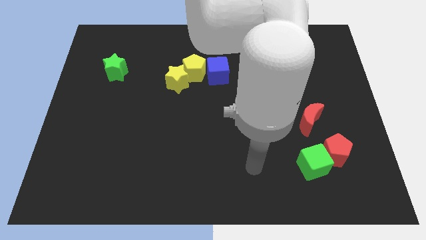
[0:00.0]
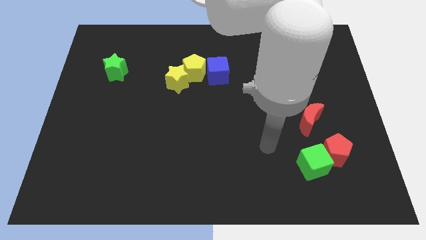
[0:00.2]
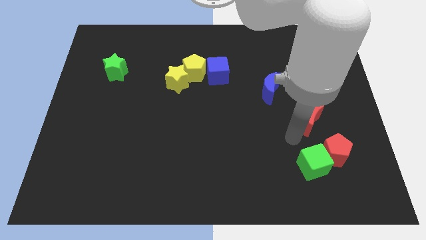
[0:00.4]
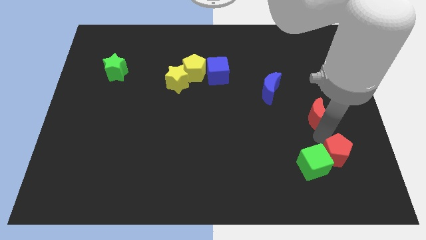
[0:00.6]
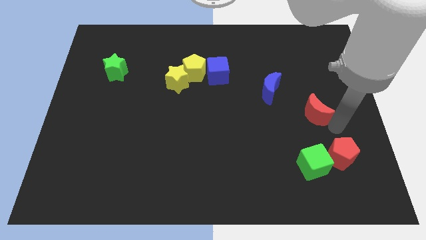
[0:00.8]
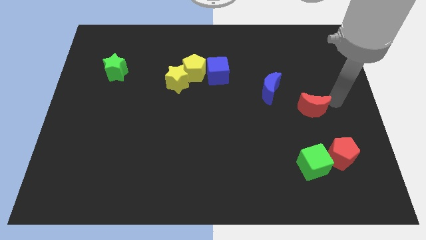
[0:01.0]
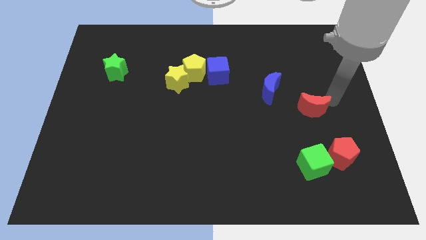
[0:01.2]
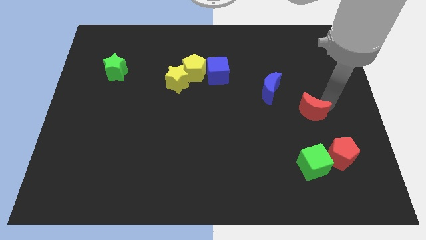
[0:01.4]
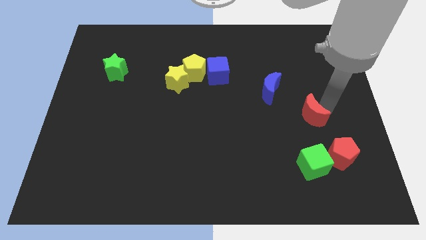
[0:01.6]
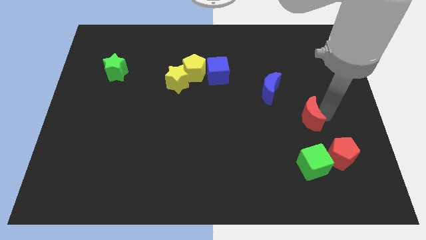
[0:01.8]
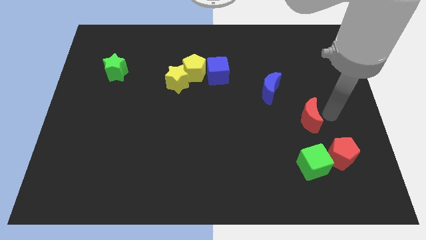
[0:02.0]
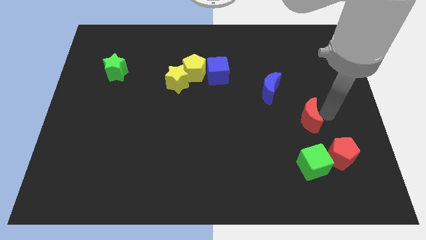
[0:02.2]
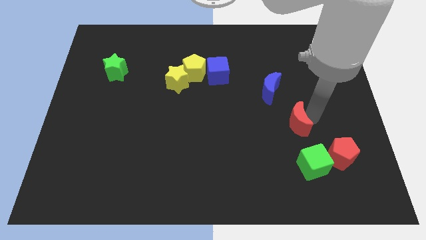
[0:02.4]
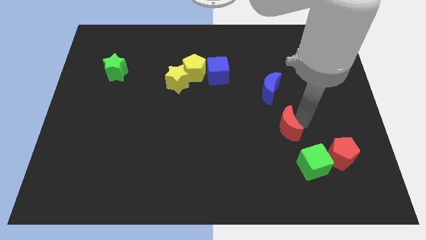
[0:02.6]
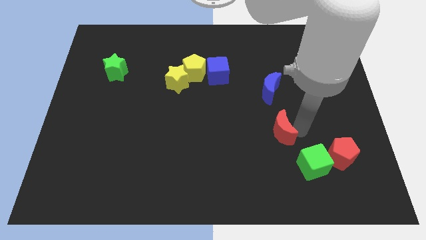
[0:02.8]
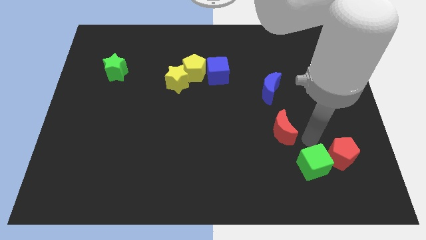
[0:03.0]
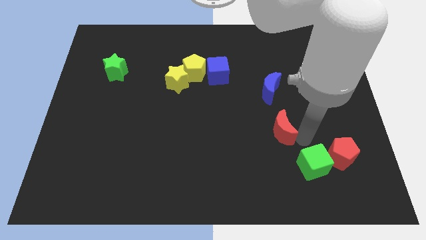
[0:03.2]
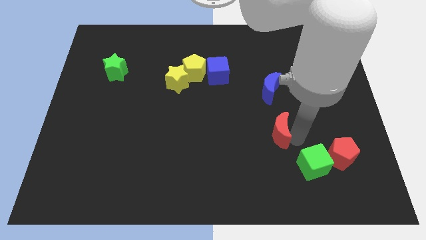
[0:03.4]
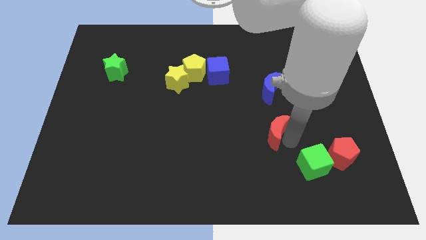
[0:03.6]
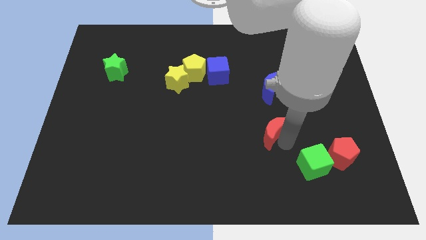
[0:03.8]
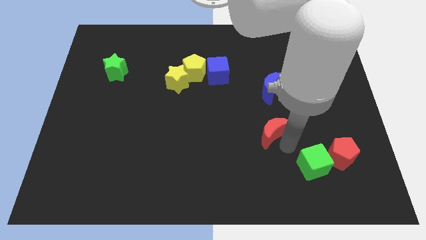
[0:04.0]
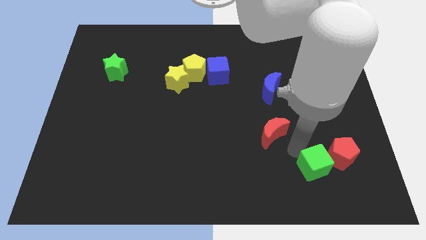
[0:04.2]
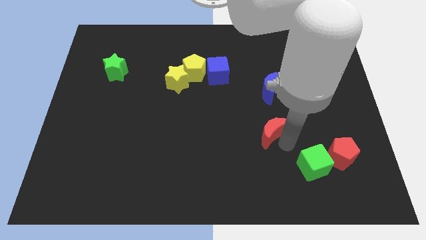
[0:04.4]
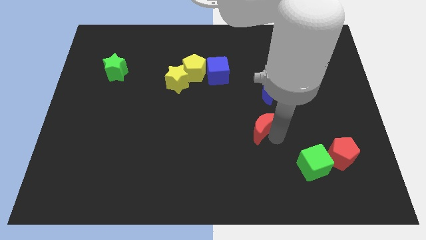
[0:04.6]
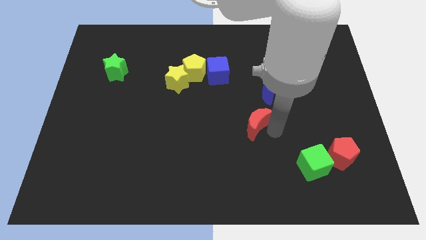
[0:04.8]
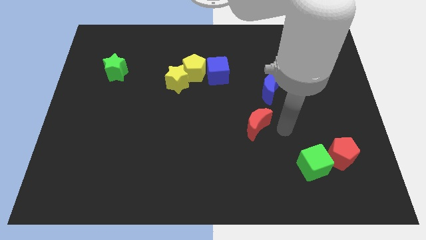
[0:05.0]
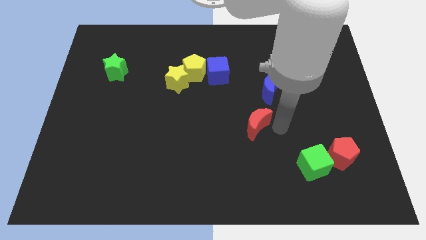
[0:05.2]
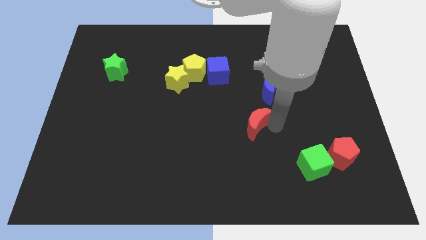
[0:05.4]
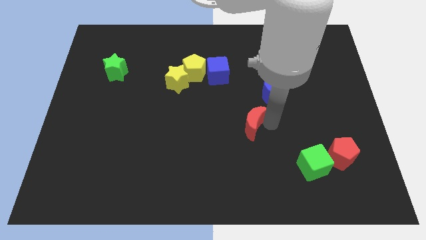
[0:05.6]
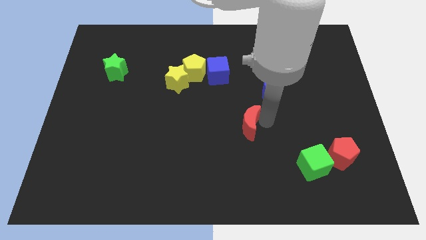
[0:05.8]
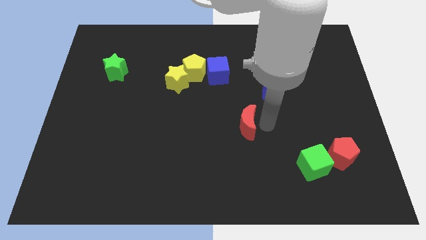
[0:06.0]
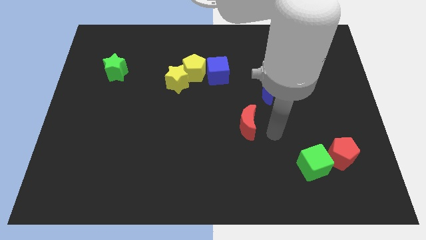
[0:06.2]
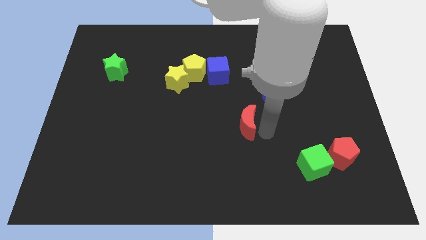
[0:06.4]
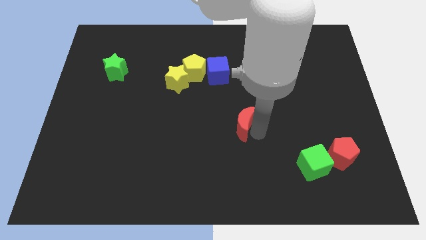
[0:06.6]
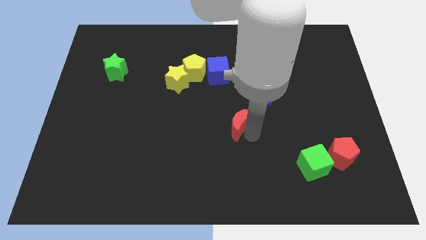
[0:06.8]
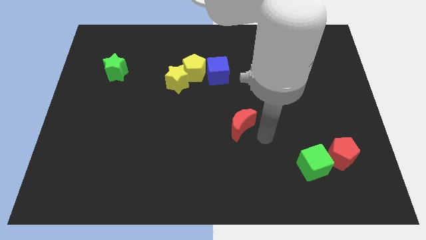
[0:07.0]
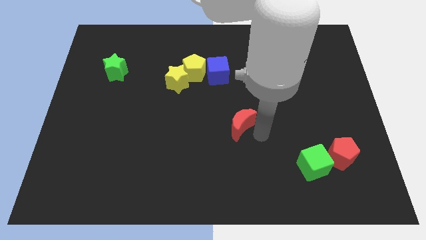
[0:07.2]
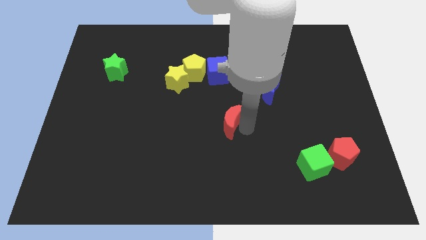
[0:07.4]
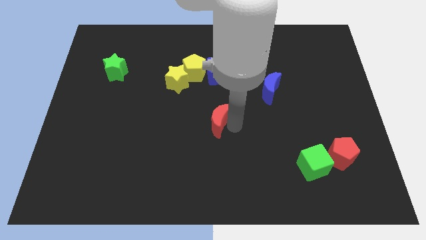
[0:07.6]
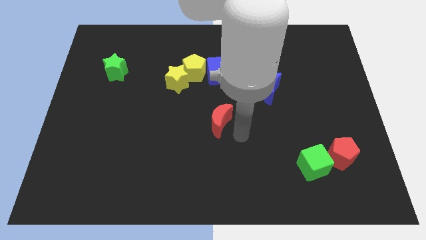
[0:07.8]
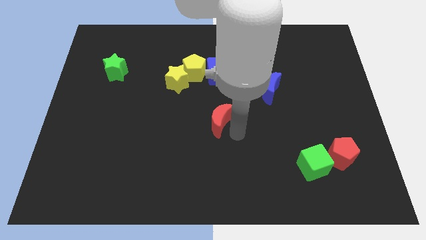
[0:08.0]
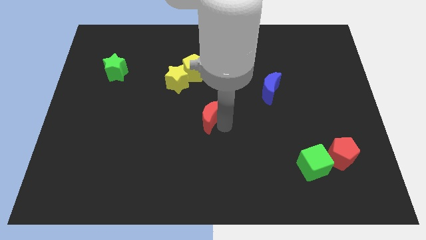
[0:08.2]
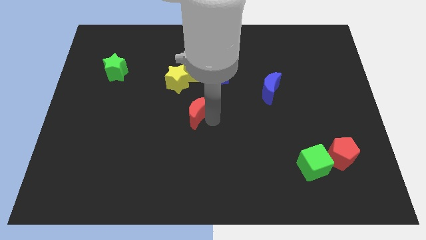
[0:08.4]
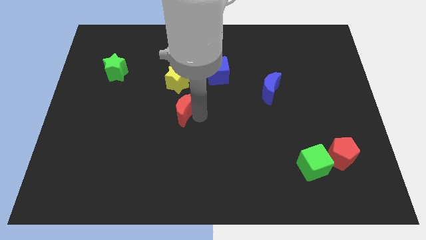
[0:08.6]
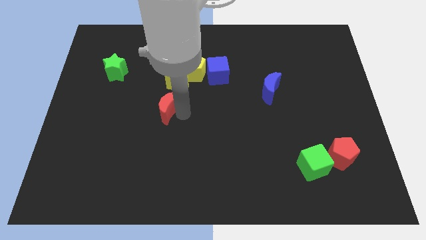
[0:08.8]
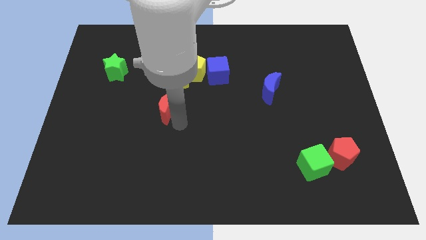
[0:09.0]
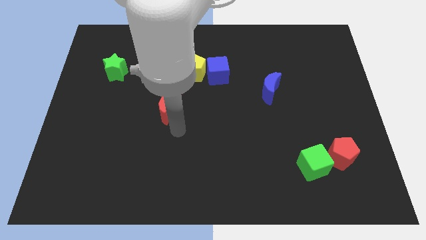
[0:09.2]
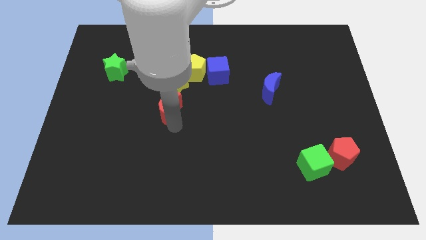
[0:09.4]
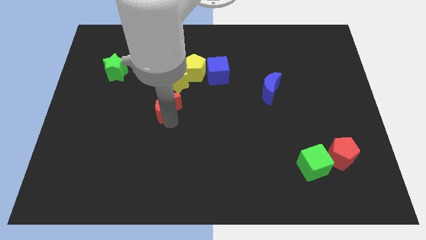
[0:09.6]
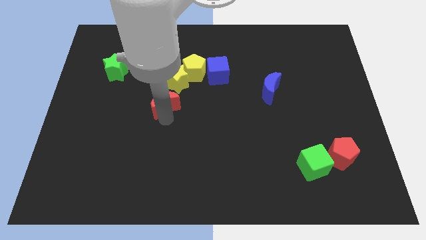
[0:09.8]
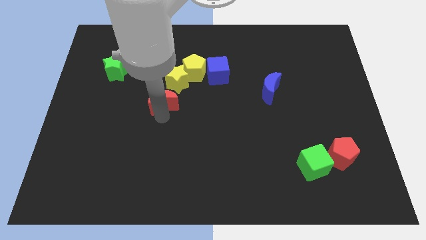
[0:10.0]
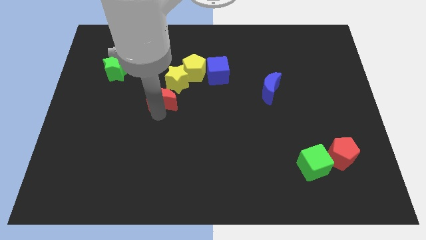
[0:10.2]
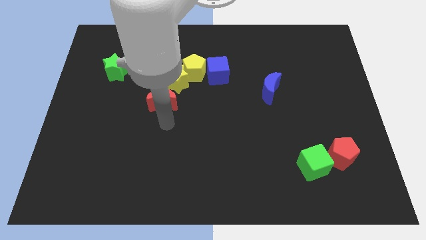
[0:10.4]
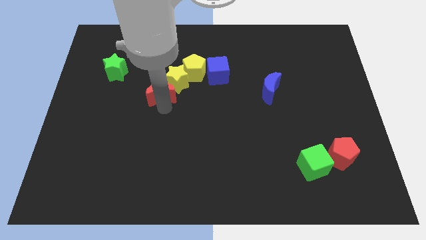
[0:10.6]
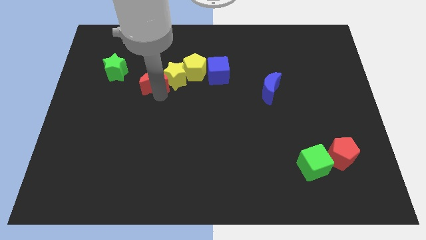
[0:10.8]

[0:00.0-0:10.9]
slide the red moon right of the green star

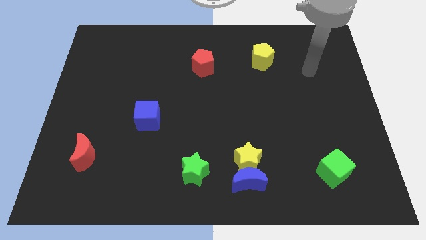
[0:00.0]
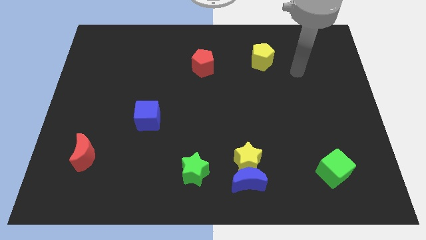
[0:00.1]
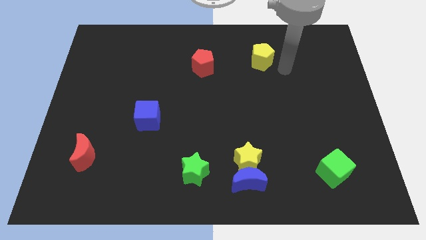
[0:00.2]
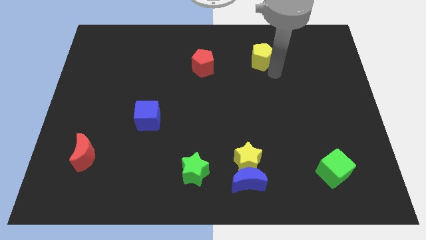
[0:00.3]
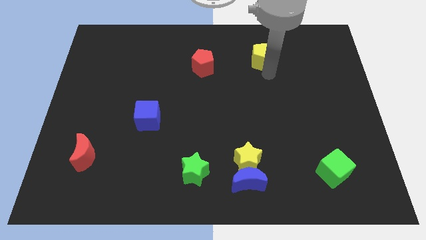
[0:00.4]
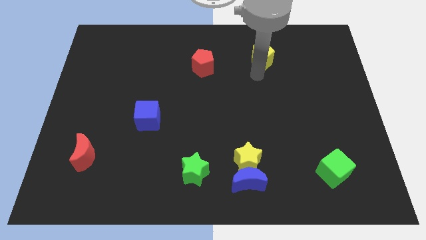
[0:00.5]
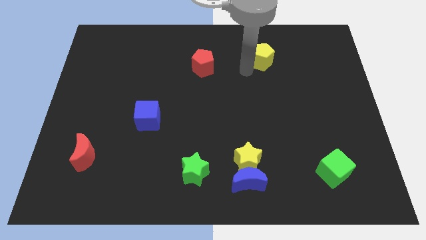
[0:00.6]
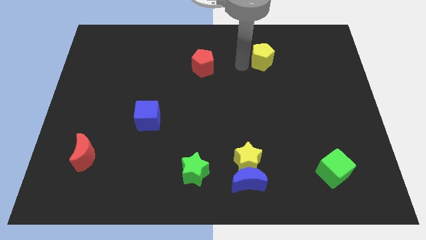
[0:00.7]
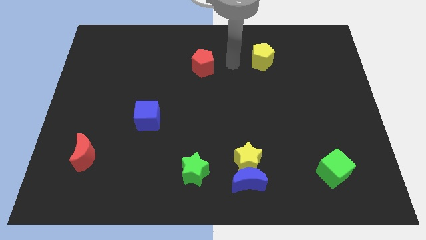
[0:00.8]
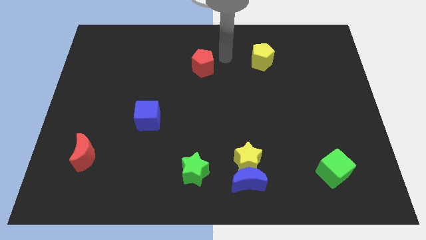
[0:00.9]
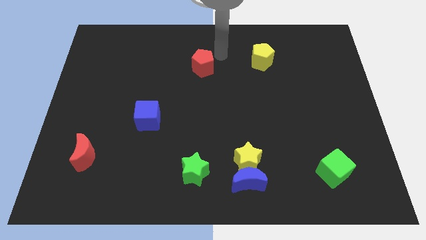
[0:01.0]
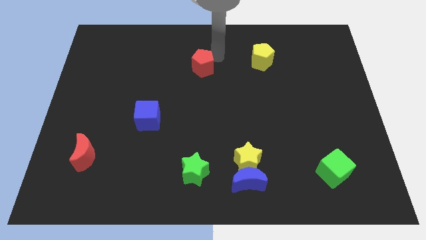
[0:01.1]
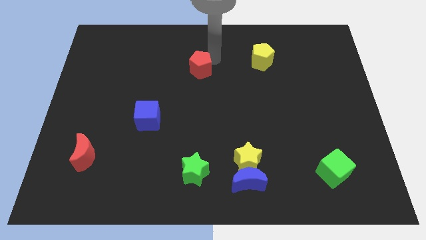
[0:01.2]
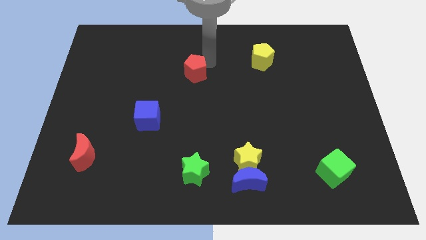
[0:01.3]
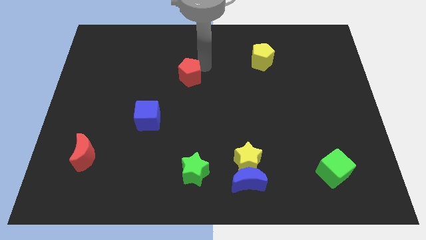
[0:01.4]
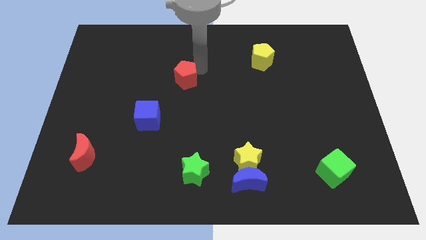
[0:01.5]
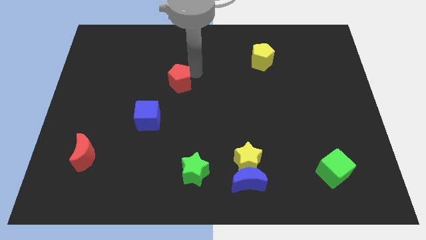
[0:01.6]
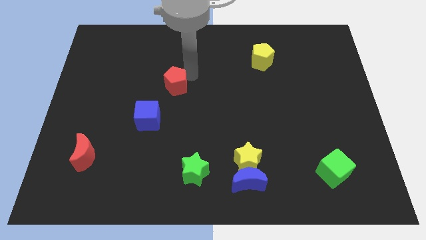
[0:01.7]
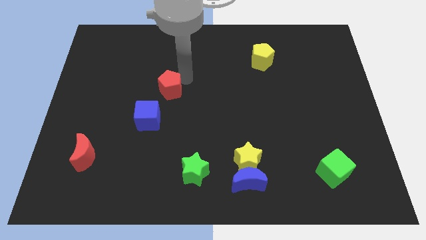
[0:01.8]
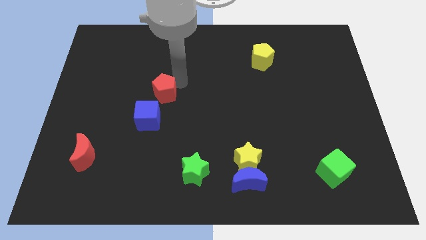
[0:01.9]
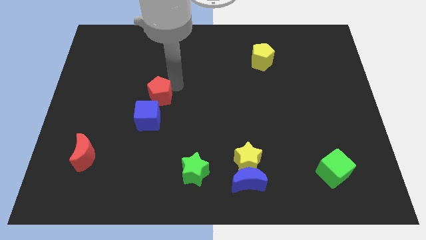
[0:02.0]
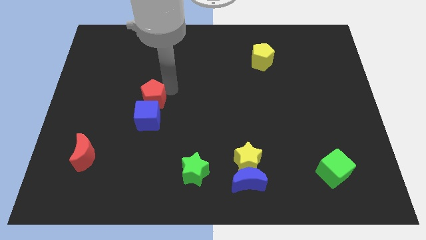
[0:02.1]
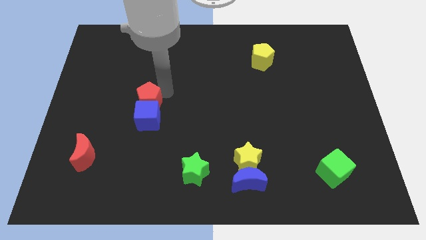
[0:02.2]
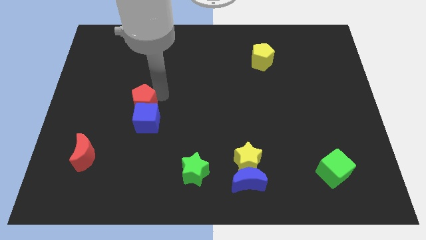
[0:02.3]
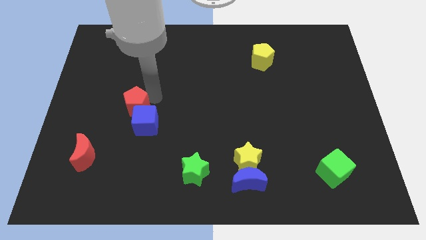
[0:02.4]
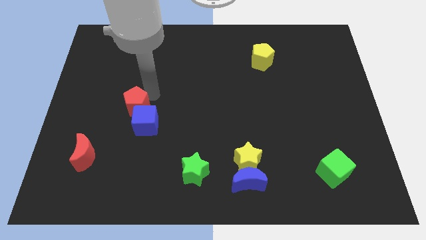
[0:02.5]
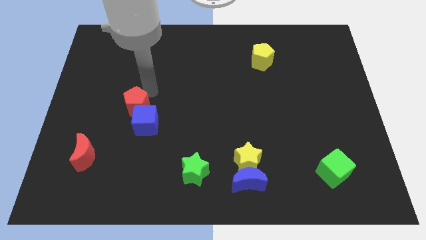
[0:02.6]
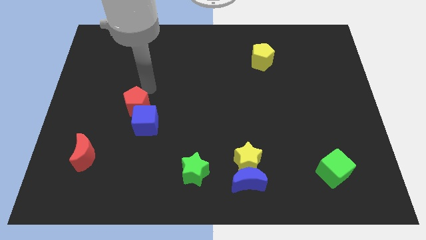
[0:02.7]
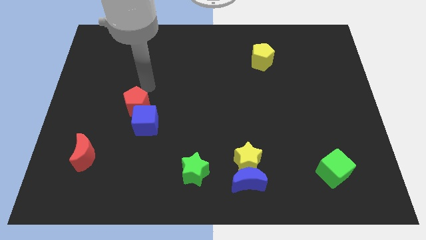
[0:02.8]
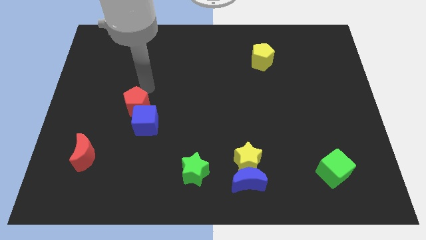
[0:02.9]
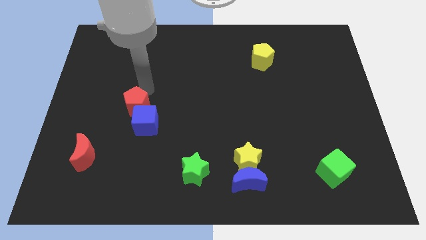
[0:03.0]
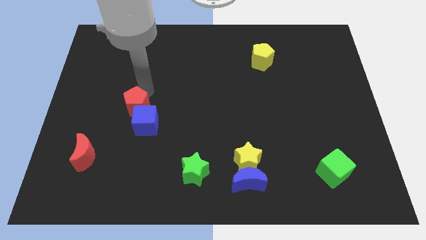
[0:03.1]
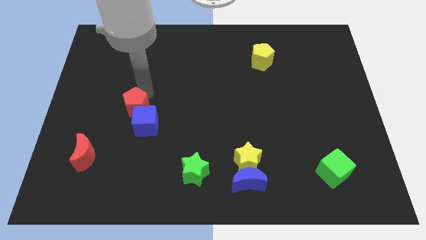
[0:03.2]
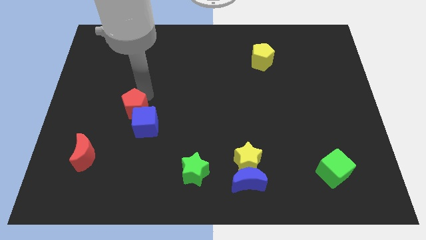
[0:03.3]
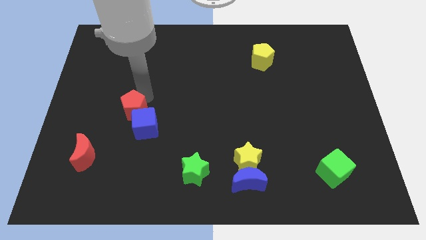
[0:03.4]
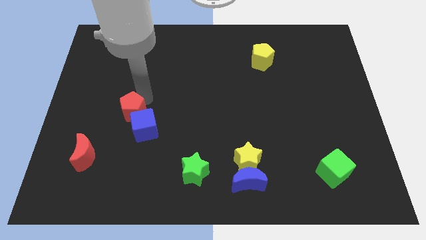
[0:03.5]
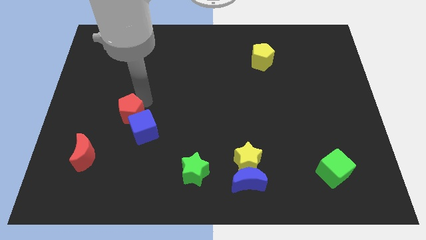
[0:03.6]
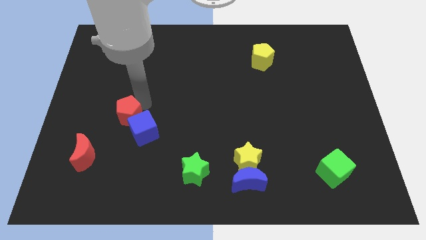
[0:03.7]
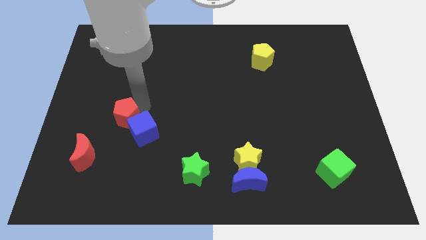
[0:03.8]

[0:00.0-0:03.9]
move the red pentagon to the top right side of the red moon
